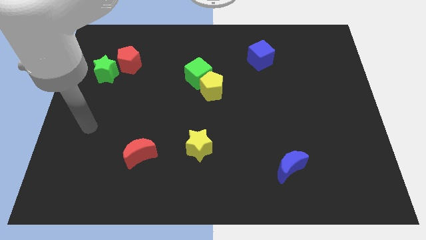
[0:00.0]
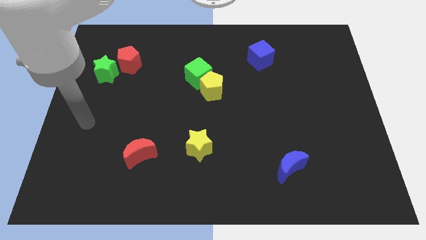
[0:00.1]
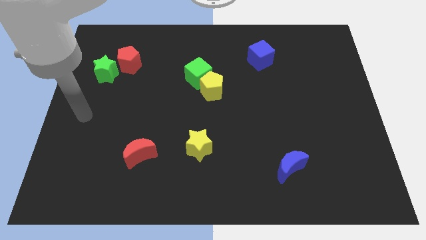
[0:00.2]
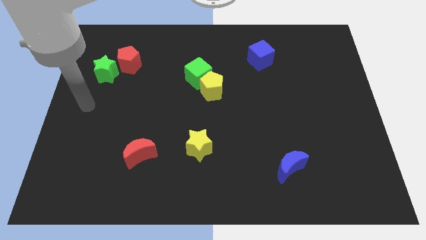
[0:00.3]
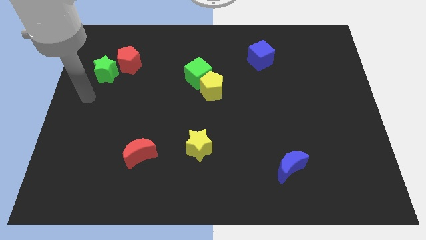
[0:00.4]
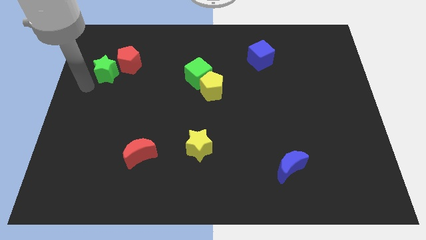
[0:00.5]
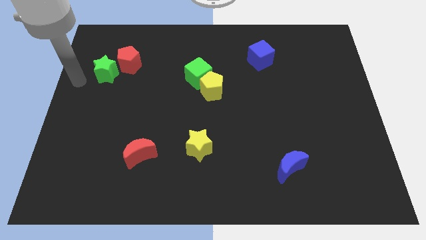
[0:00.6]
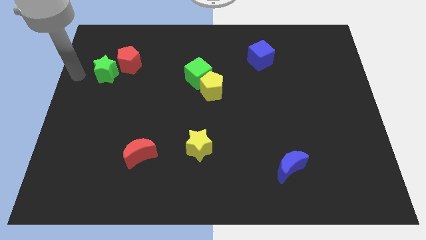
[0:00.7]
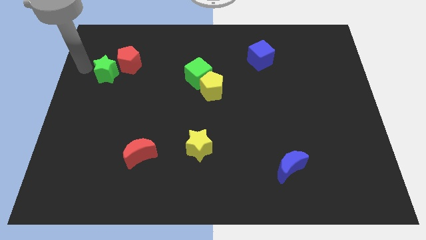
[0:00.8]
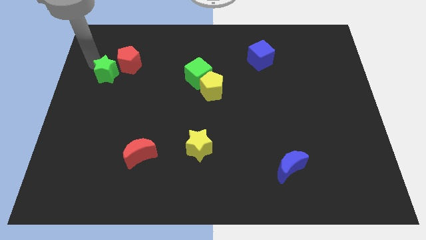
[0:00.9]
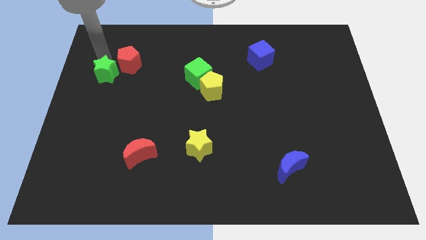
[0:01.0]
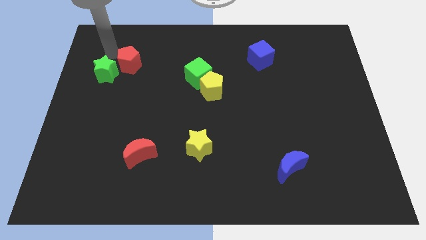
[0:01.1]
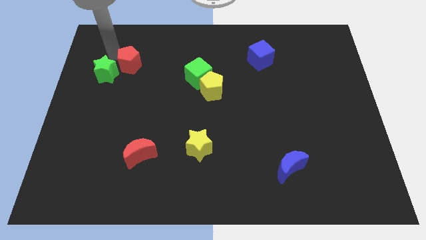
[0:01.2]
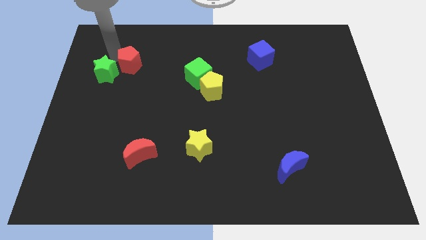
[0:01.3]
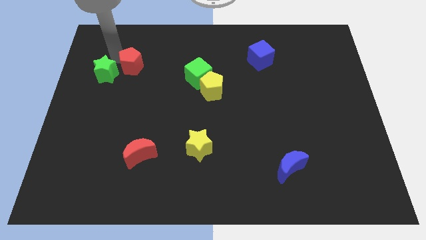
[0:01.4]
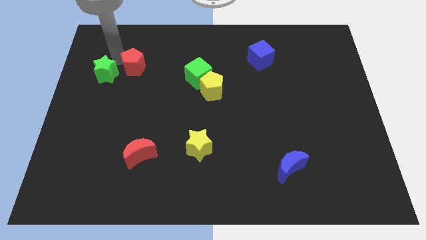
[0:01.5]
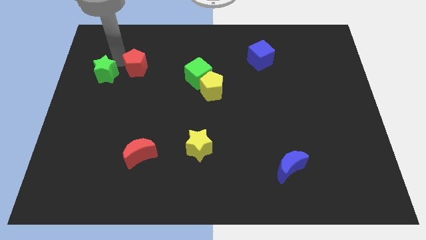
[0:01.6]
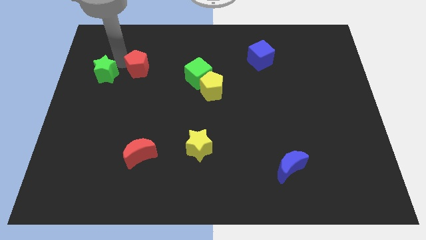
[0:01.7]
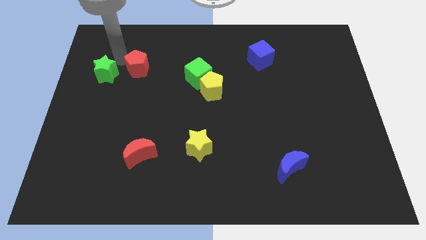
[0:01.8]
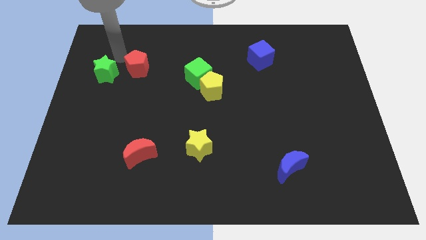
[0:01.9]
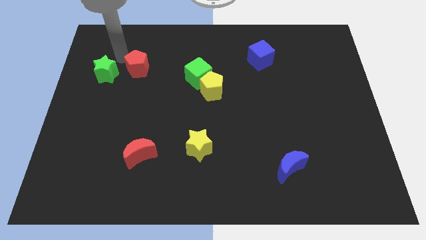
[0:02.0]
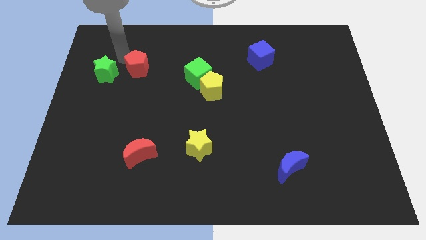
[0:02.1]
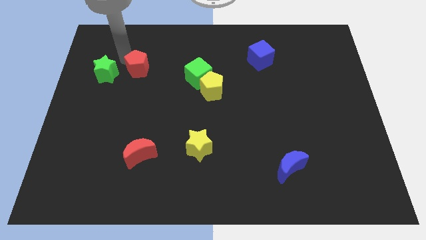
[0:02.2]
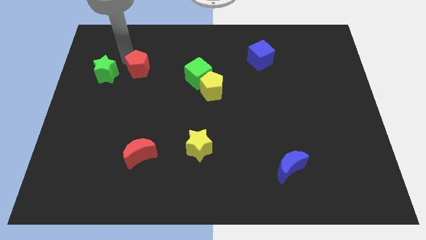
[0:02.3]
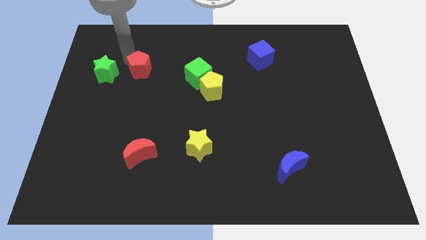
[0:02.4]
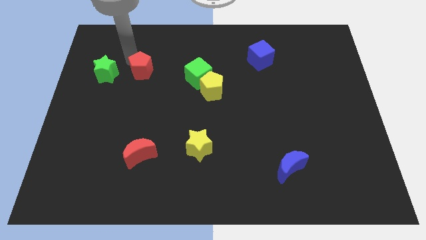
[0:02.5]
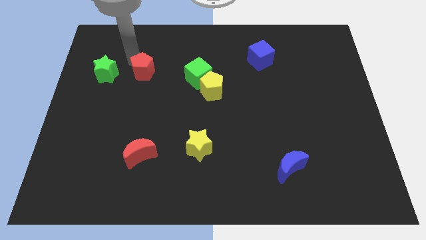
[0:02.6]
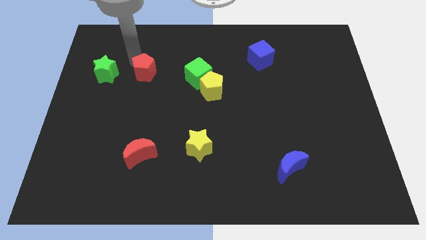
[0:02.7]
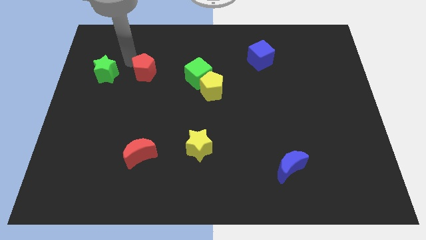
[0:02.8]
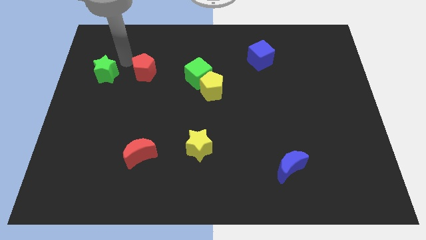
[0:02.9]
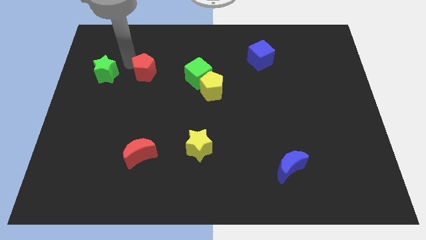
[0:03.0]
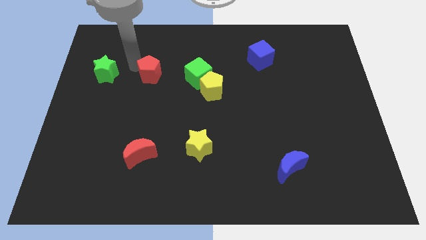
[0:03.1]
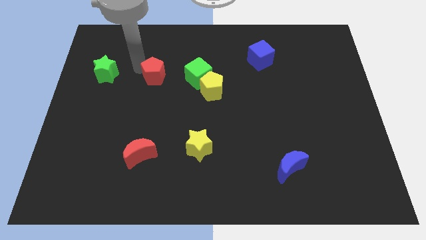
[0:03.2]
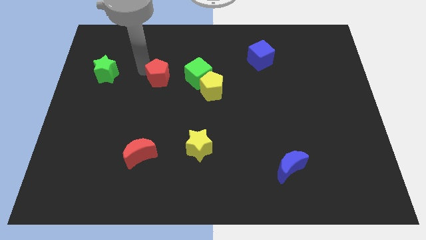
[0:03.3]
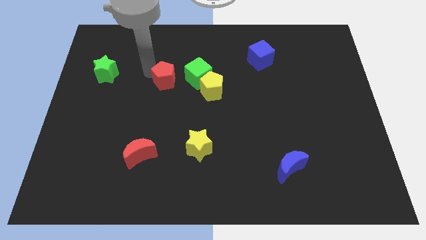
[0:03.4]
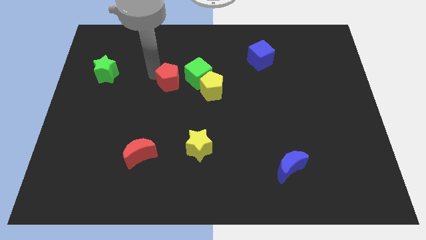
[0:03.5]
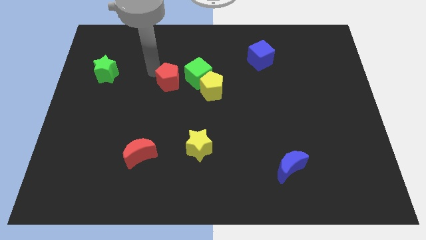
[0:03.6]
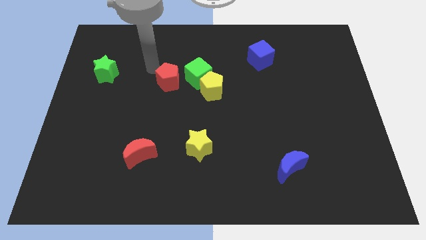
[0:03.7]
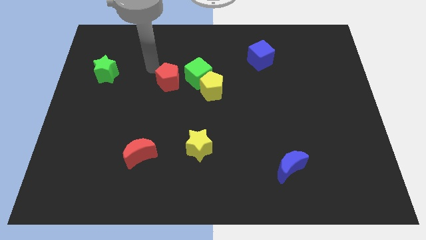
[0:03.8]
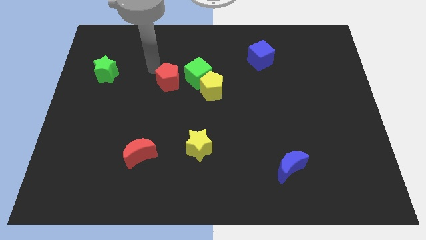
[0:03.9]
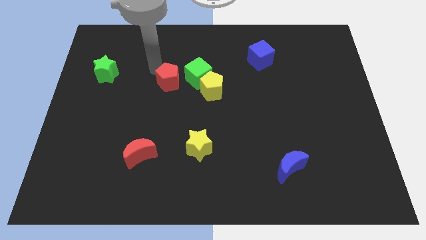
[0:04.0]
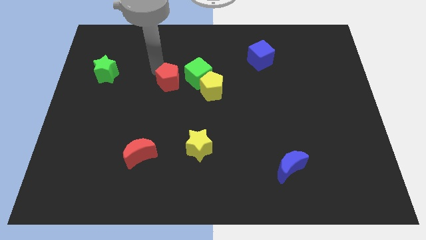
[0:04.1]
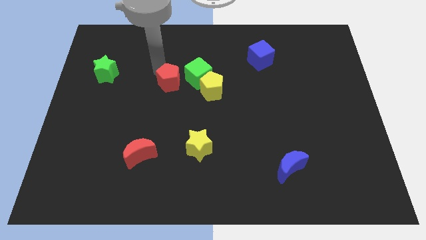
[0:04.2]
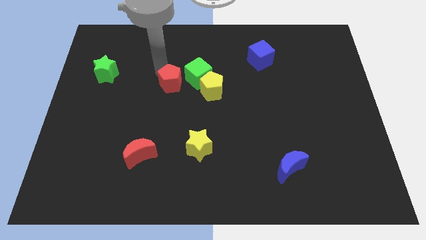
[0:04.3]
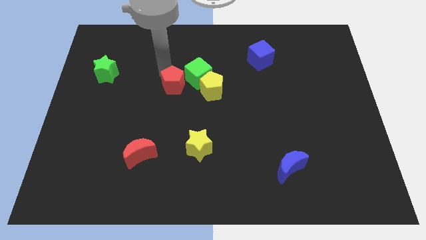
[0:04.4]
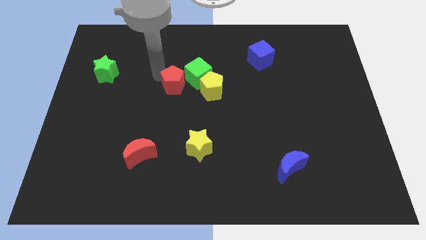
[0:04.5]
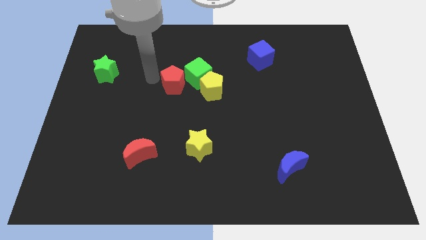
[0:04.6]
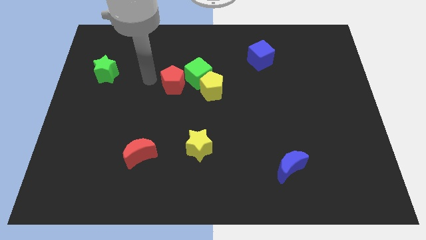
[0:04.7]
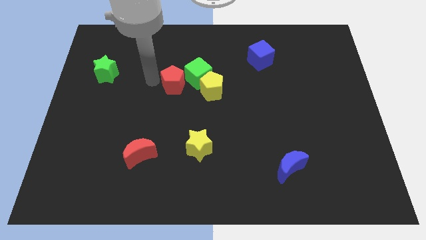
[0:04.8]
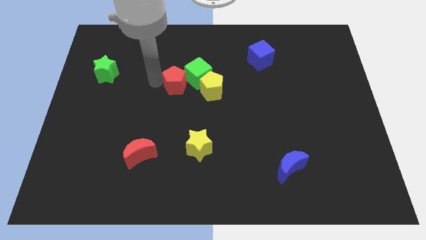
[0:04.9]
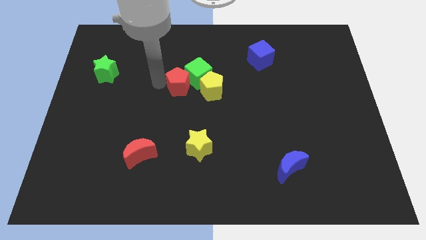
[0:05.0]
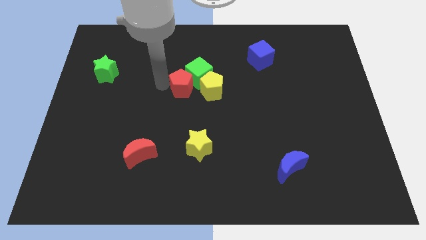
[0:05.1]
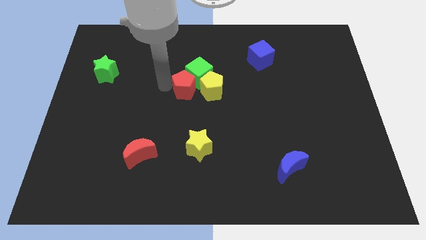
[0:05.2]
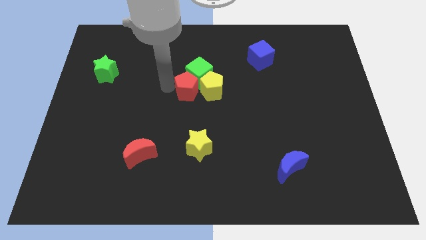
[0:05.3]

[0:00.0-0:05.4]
push the red pentagon towards the yellow pentagon

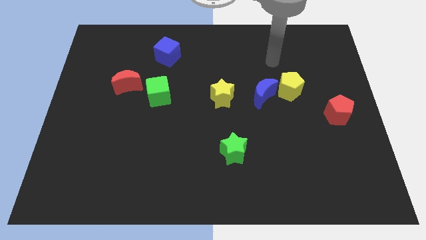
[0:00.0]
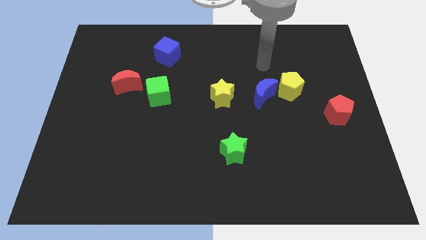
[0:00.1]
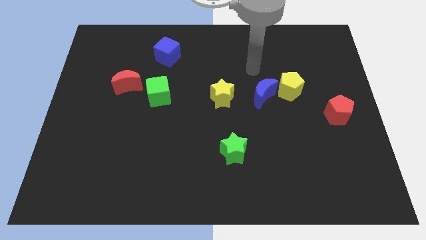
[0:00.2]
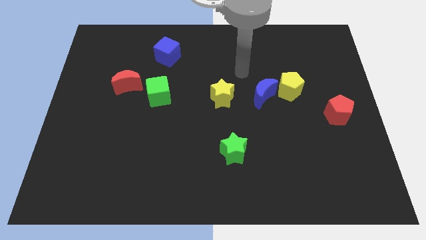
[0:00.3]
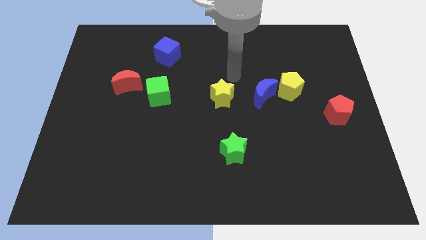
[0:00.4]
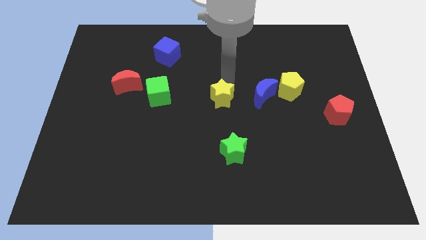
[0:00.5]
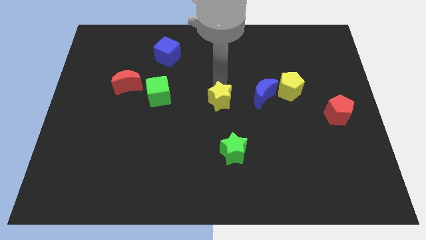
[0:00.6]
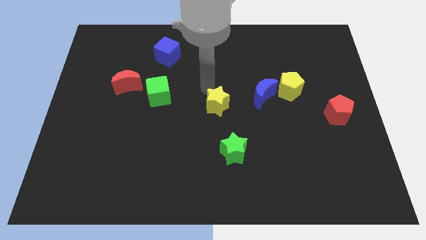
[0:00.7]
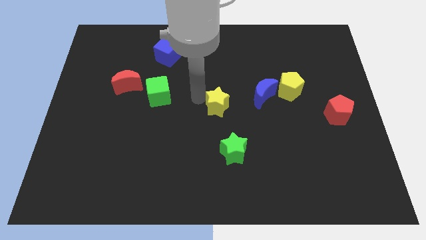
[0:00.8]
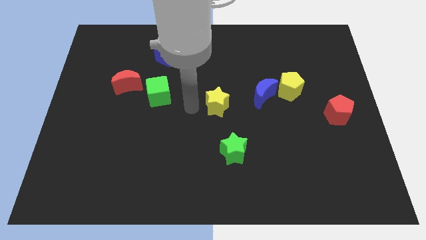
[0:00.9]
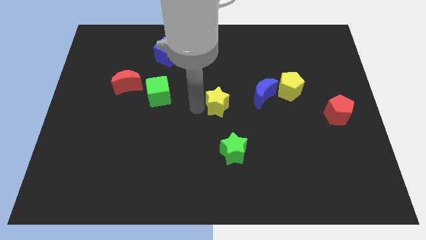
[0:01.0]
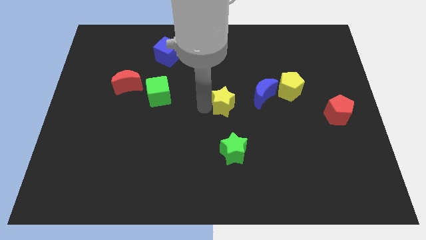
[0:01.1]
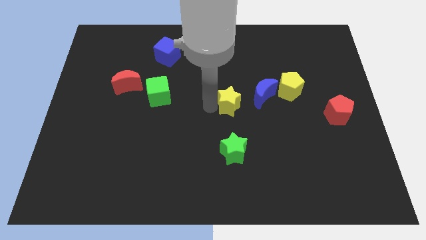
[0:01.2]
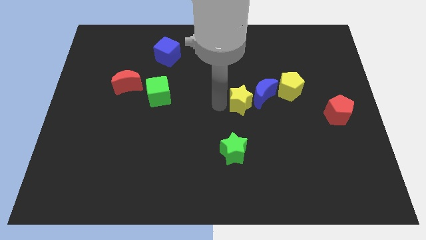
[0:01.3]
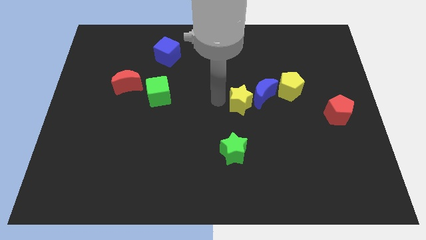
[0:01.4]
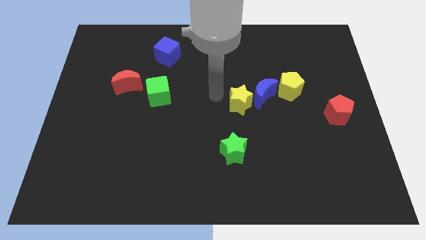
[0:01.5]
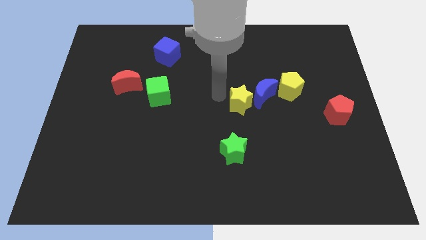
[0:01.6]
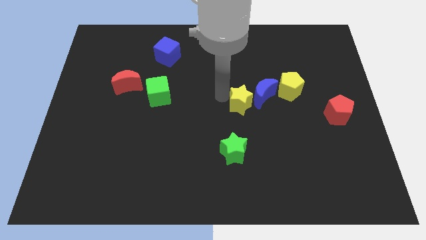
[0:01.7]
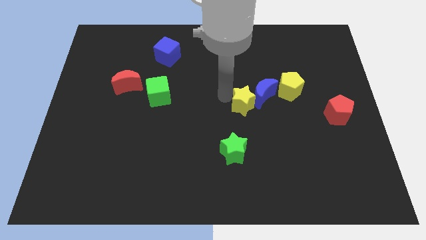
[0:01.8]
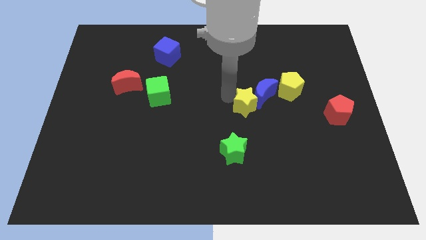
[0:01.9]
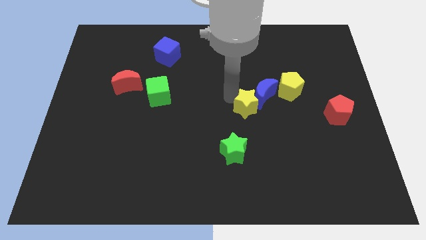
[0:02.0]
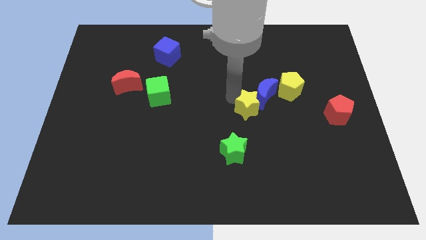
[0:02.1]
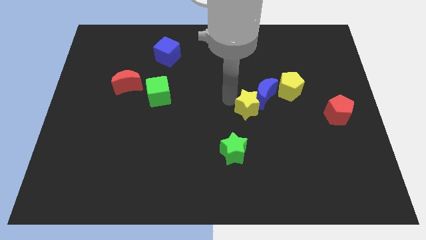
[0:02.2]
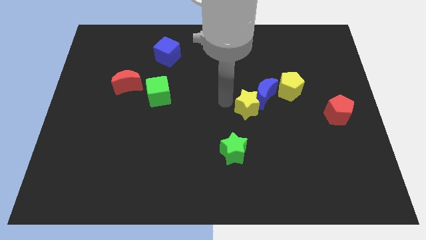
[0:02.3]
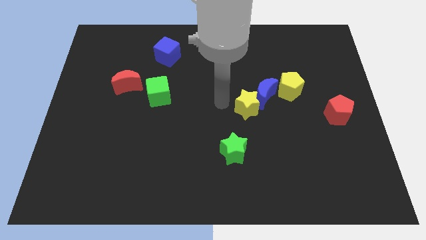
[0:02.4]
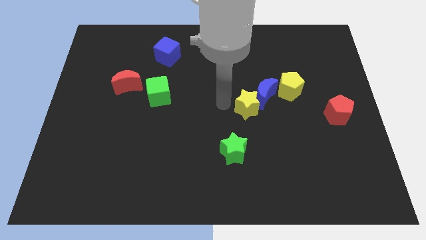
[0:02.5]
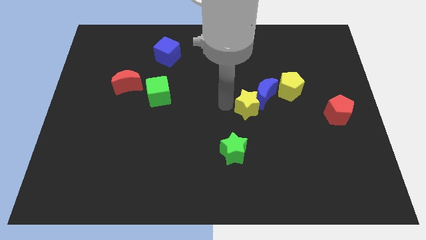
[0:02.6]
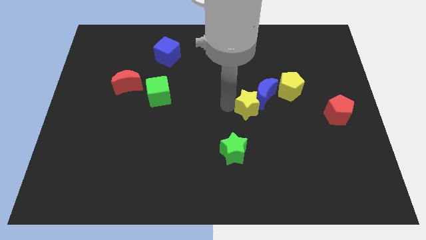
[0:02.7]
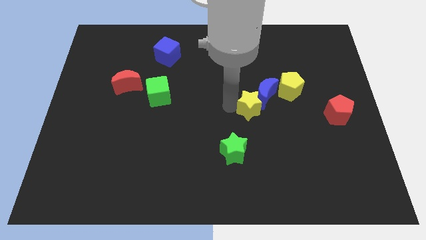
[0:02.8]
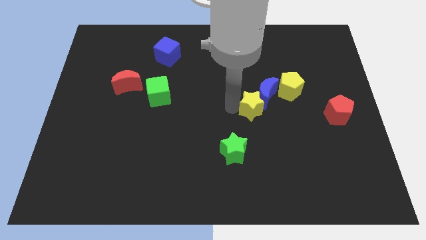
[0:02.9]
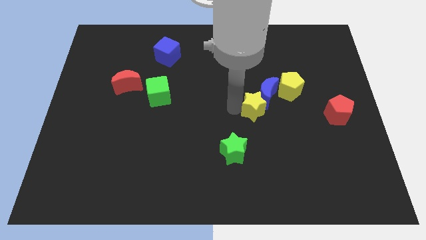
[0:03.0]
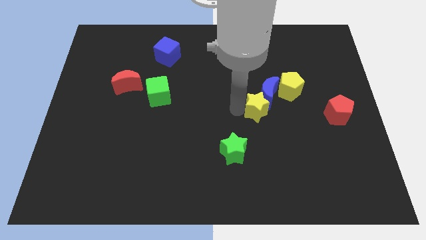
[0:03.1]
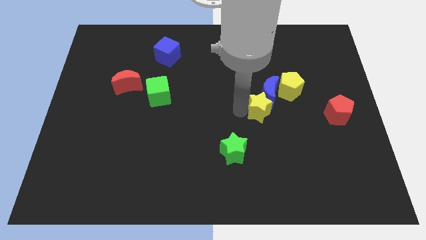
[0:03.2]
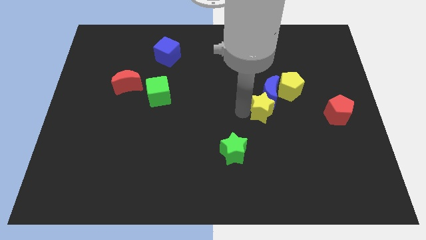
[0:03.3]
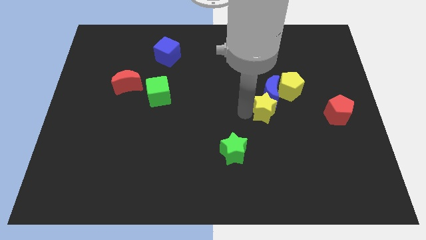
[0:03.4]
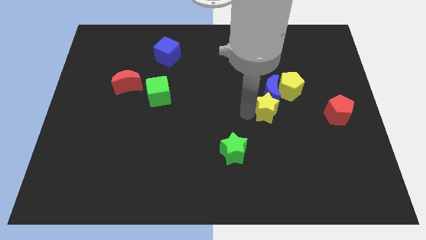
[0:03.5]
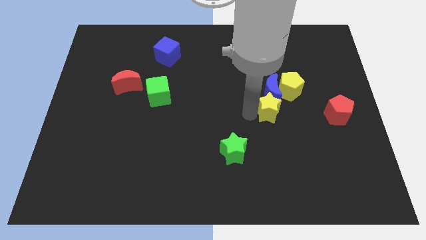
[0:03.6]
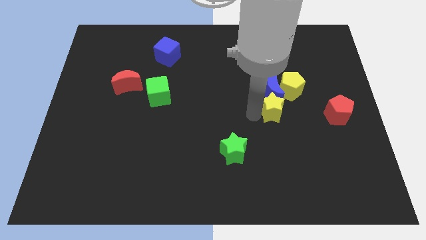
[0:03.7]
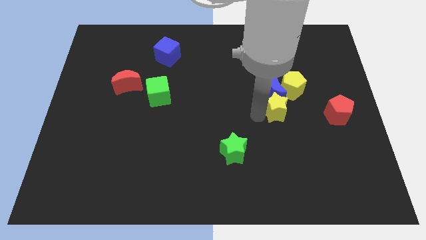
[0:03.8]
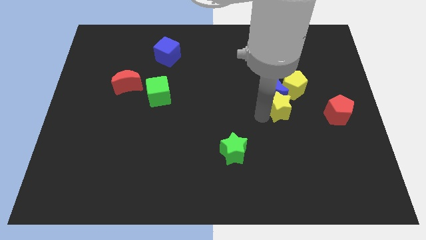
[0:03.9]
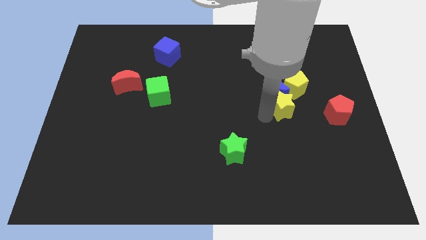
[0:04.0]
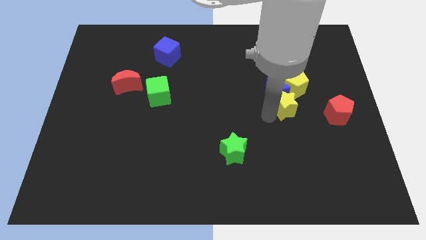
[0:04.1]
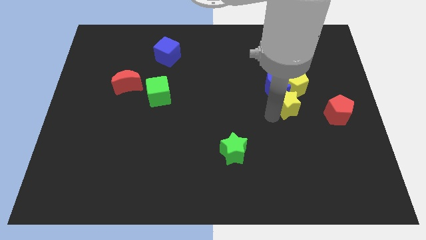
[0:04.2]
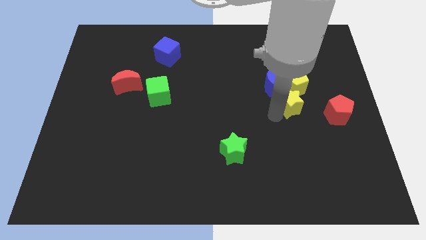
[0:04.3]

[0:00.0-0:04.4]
put the yellow star to the yellow pentagon
